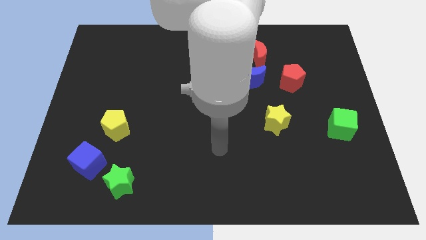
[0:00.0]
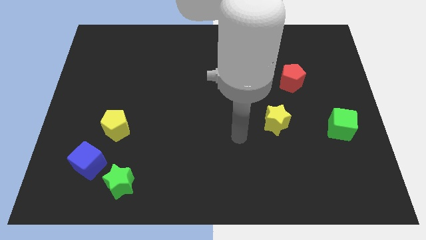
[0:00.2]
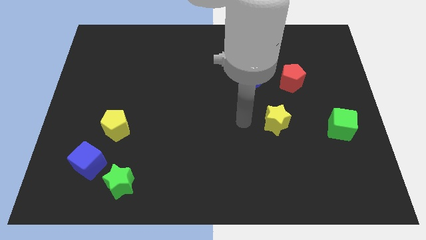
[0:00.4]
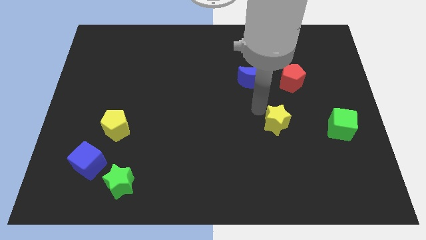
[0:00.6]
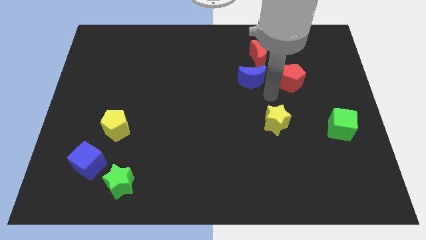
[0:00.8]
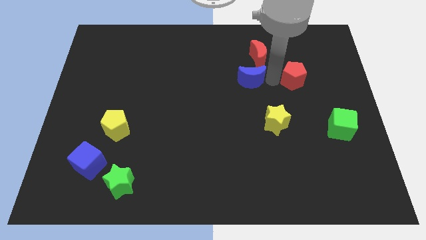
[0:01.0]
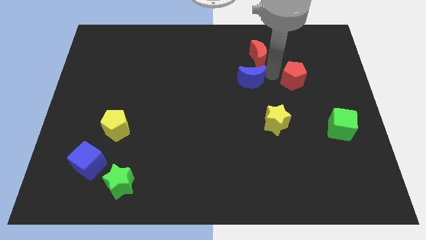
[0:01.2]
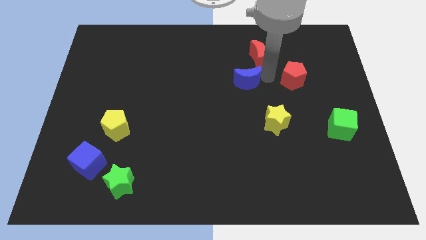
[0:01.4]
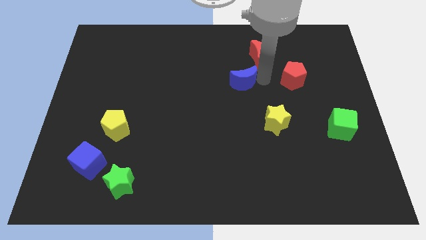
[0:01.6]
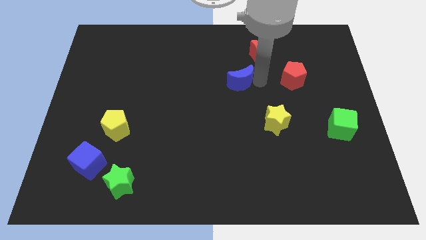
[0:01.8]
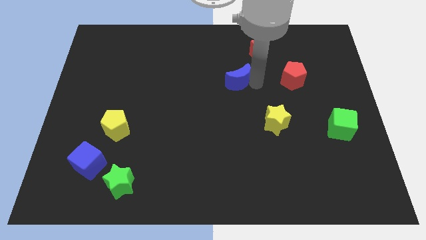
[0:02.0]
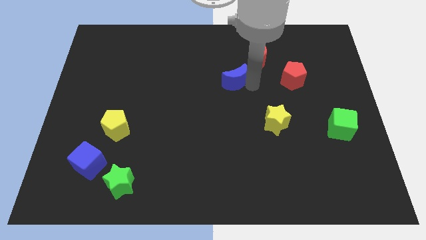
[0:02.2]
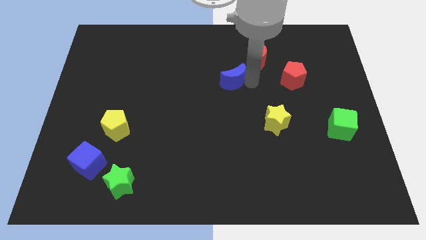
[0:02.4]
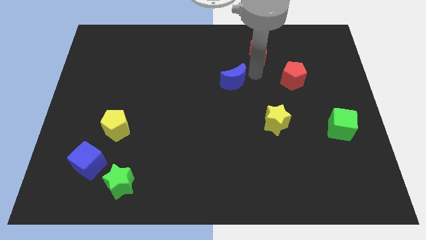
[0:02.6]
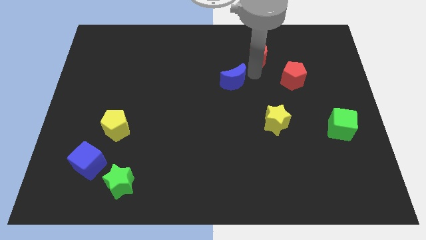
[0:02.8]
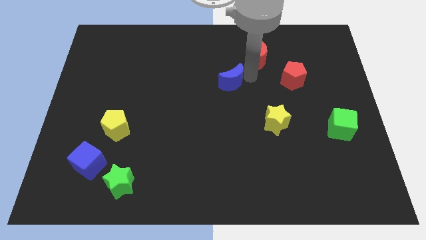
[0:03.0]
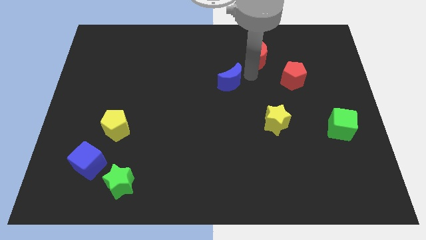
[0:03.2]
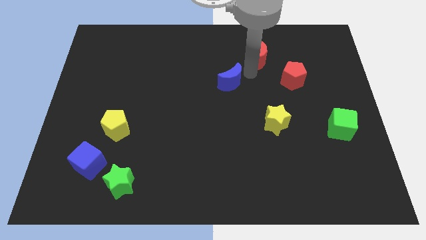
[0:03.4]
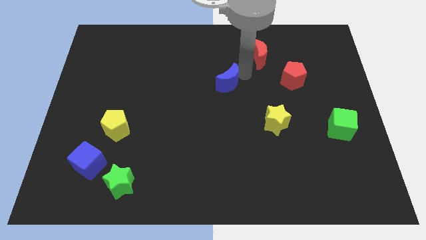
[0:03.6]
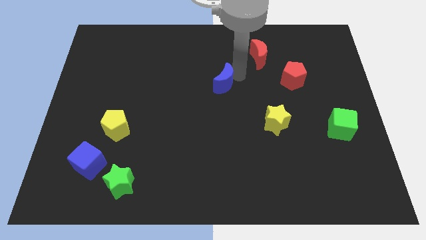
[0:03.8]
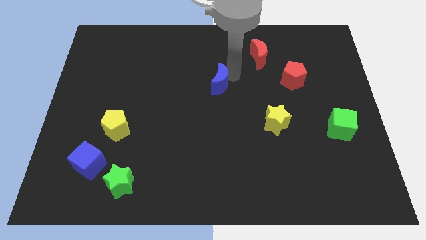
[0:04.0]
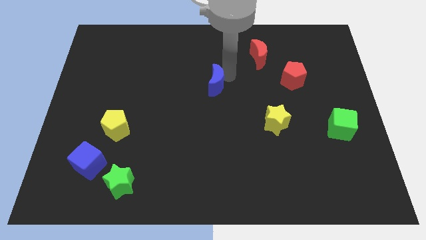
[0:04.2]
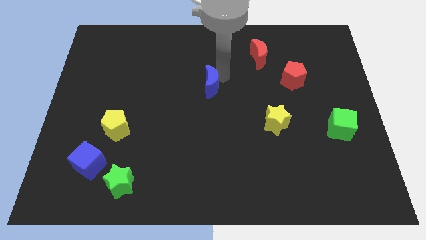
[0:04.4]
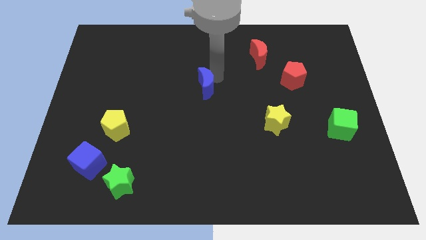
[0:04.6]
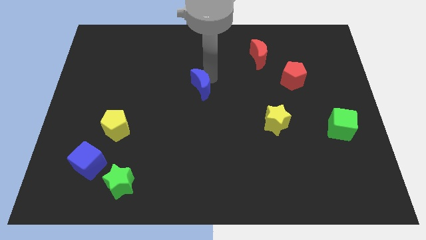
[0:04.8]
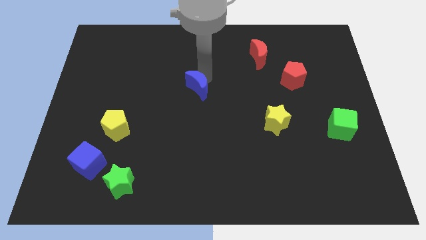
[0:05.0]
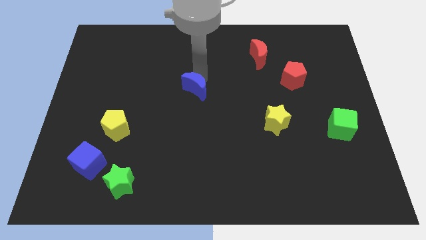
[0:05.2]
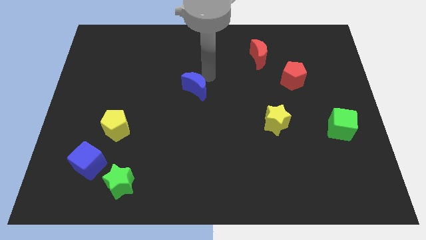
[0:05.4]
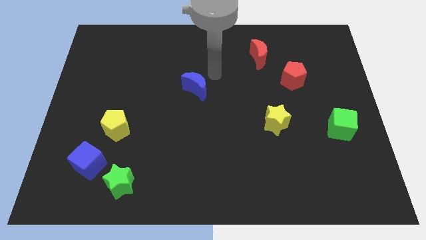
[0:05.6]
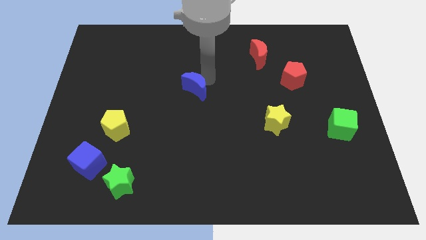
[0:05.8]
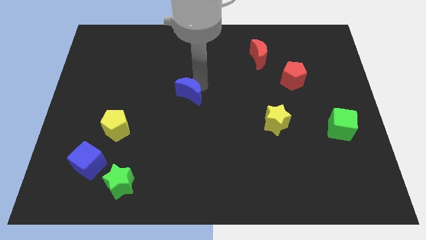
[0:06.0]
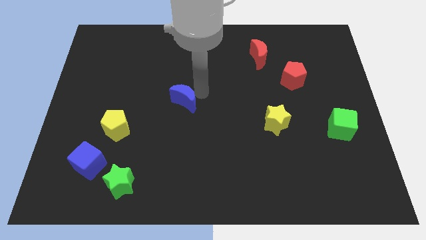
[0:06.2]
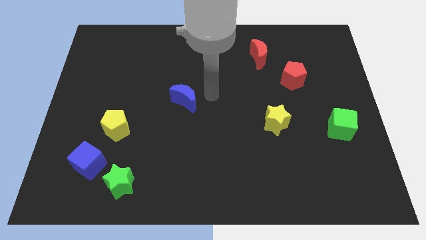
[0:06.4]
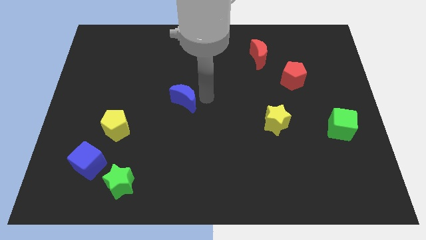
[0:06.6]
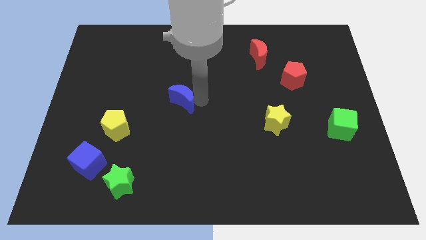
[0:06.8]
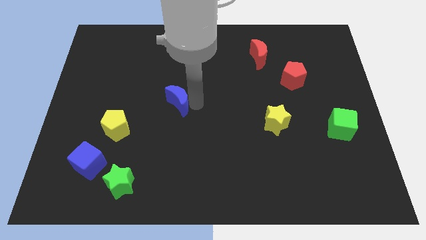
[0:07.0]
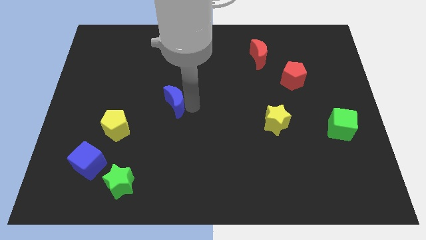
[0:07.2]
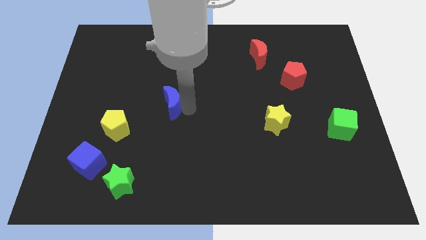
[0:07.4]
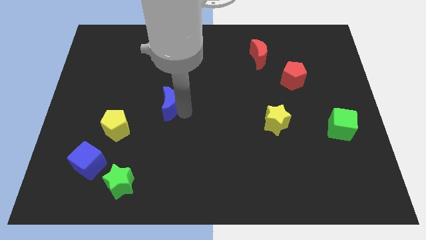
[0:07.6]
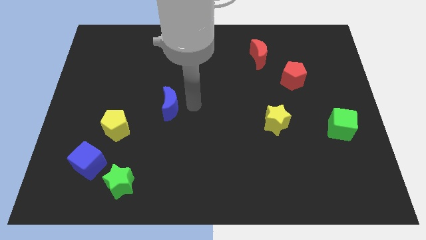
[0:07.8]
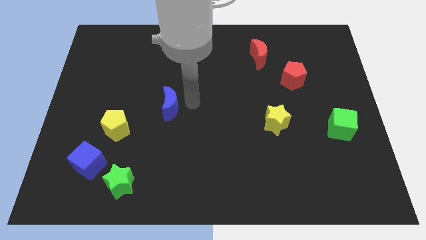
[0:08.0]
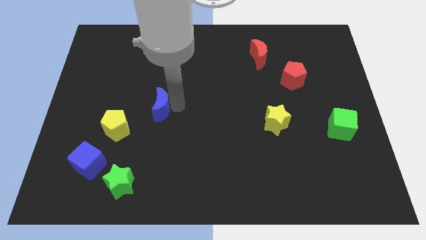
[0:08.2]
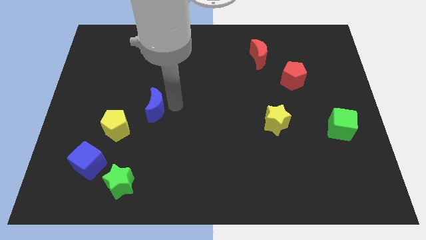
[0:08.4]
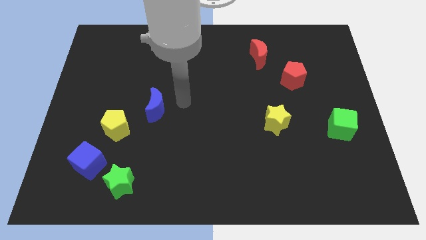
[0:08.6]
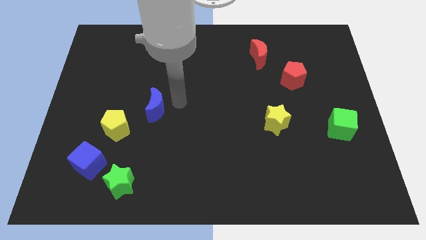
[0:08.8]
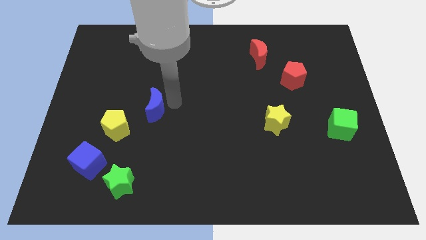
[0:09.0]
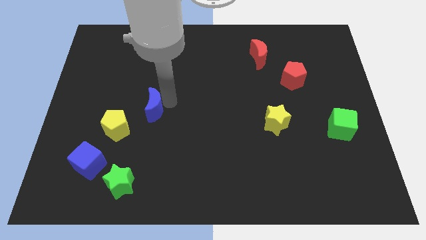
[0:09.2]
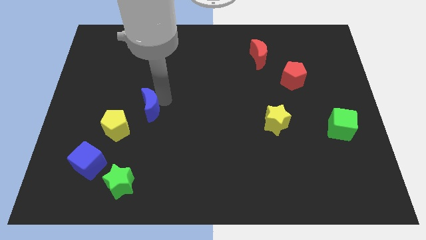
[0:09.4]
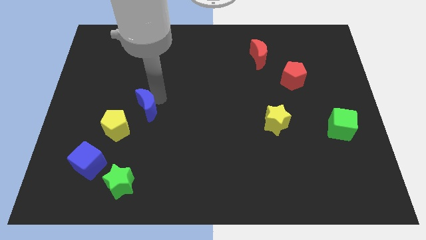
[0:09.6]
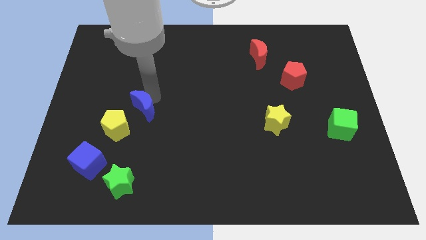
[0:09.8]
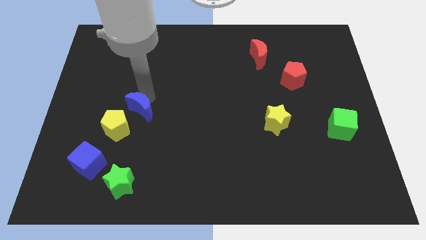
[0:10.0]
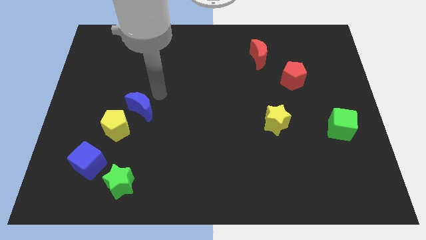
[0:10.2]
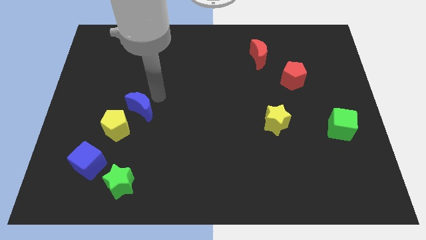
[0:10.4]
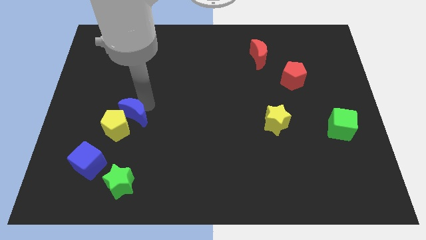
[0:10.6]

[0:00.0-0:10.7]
push the blue moon towards the yellow pentagon

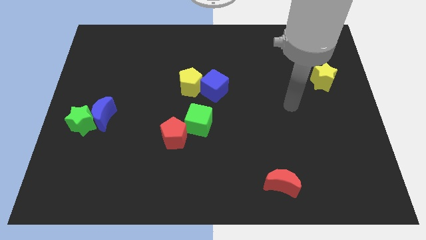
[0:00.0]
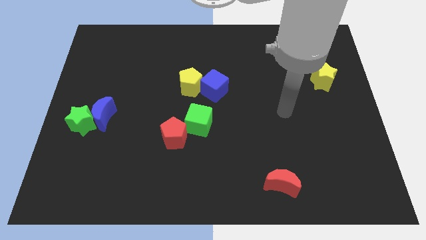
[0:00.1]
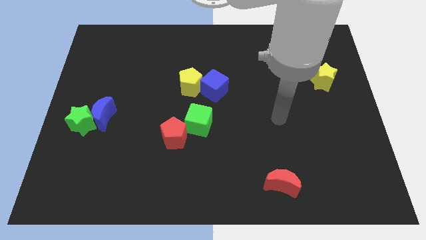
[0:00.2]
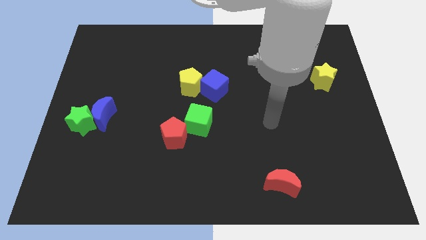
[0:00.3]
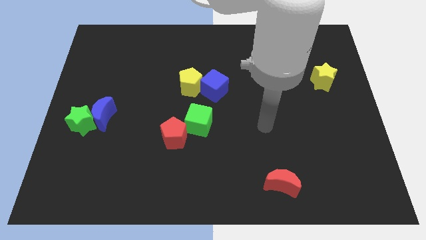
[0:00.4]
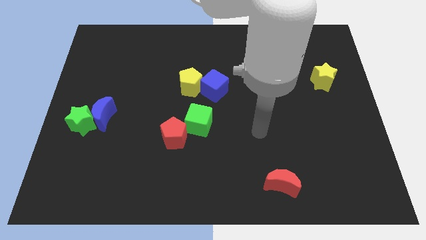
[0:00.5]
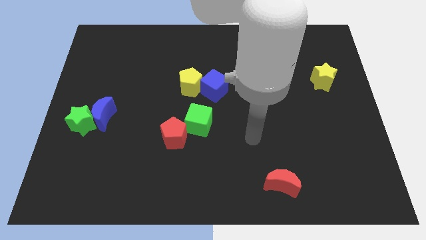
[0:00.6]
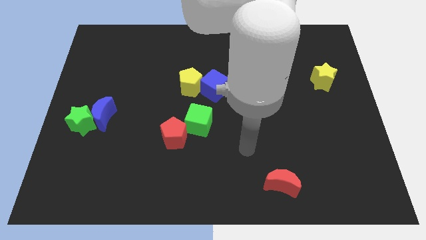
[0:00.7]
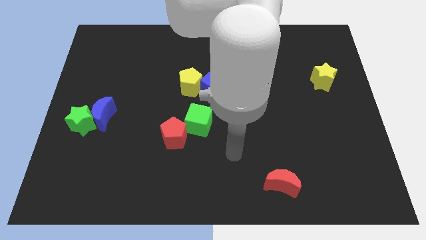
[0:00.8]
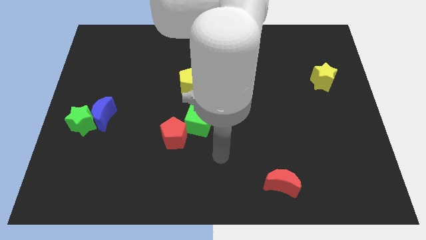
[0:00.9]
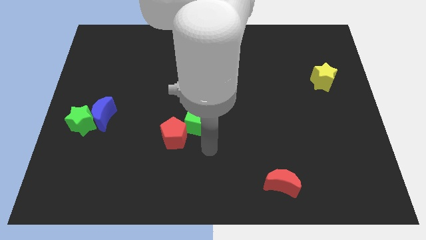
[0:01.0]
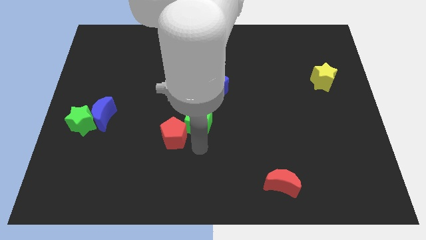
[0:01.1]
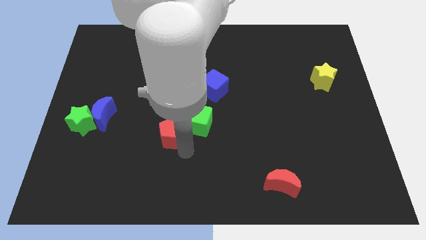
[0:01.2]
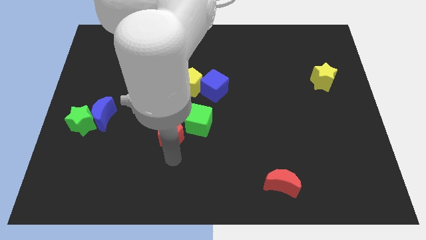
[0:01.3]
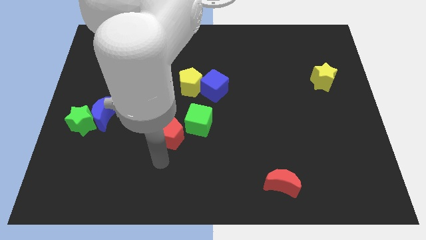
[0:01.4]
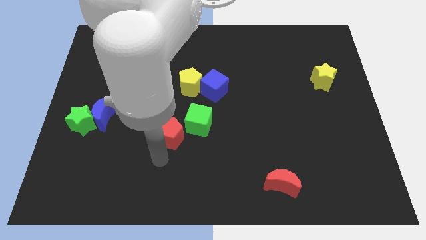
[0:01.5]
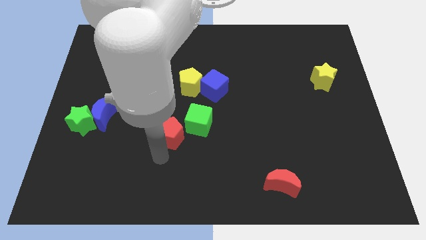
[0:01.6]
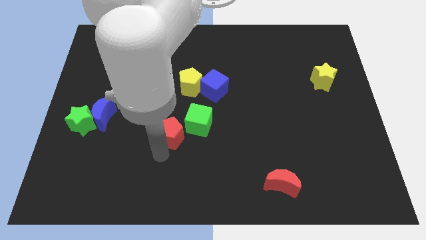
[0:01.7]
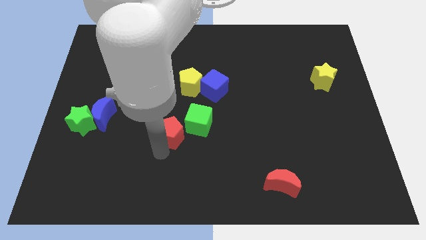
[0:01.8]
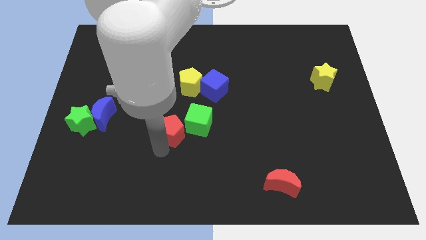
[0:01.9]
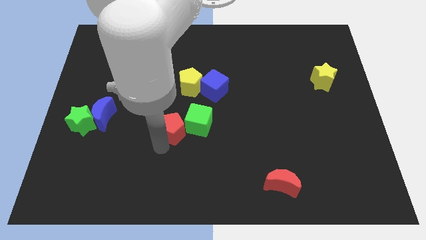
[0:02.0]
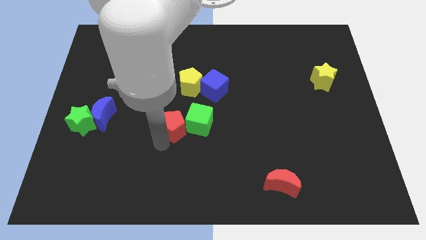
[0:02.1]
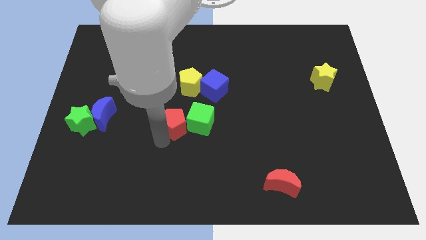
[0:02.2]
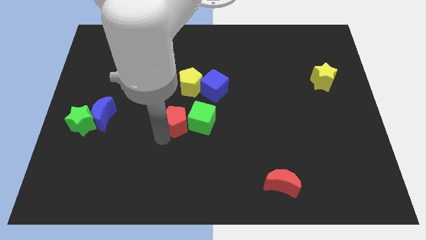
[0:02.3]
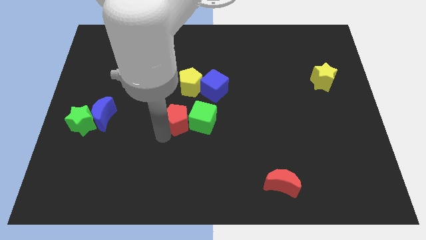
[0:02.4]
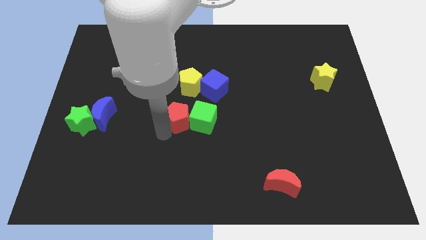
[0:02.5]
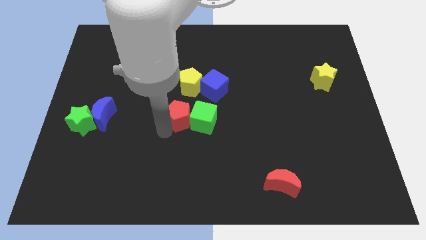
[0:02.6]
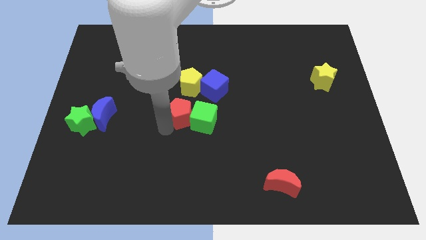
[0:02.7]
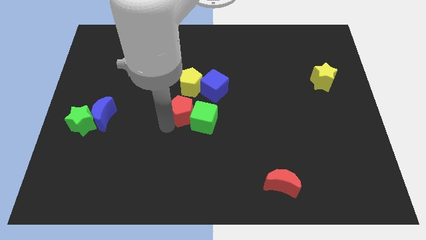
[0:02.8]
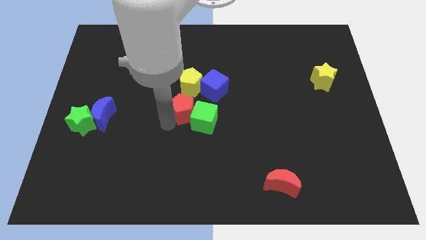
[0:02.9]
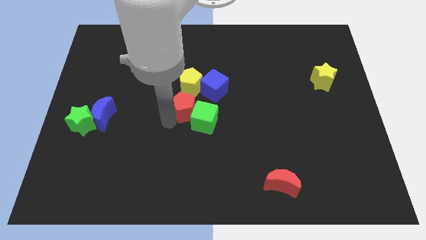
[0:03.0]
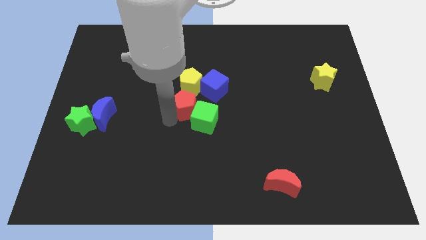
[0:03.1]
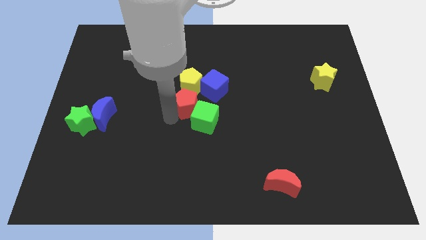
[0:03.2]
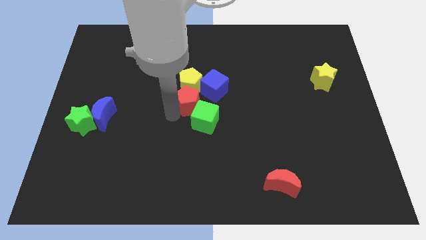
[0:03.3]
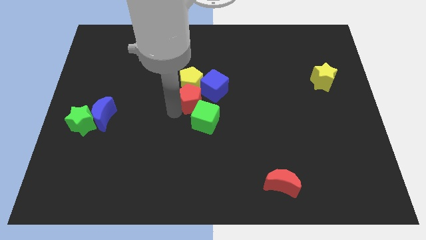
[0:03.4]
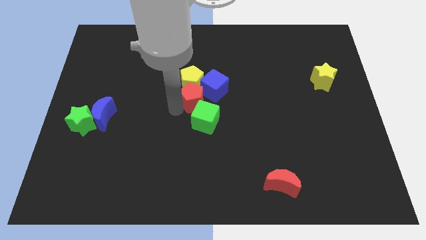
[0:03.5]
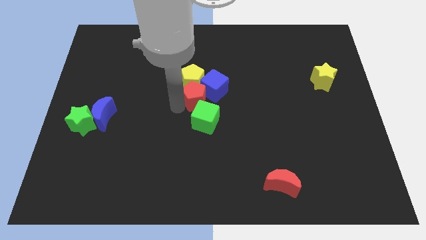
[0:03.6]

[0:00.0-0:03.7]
push the red pentagon to the blue cube
